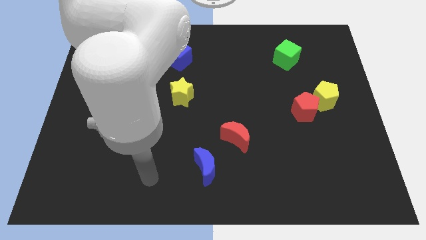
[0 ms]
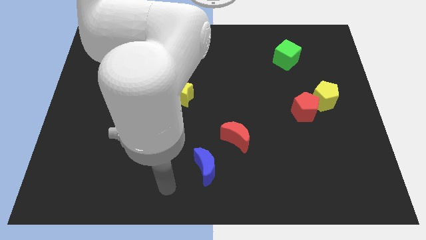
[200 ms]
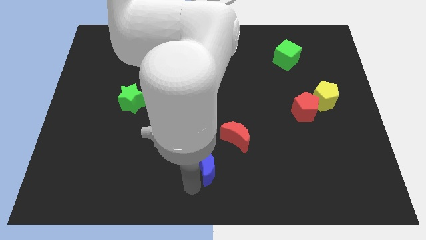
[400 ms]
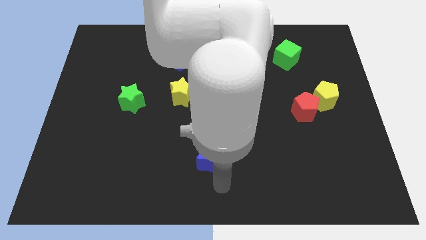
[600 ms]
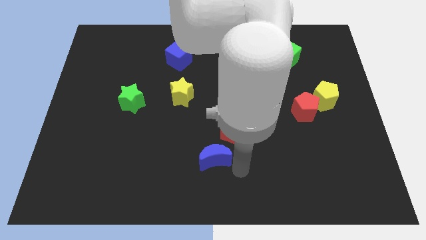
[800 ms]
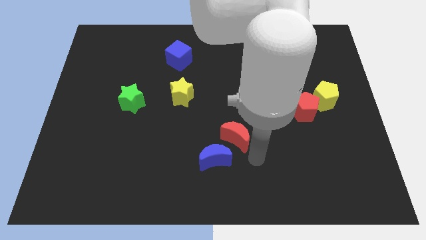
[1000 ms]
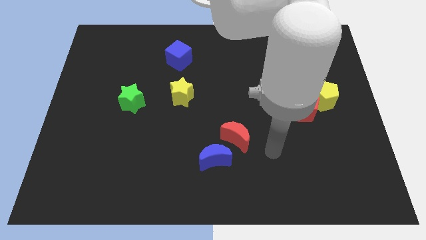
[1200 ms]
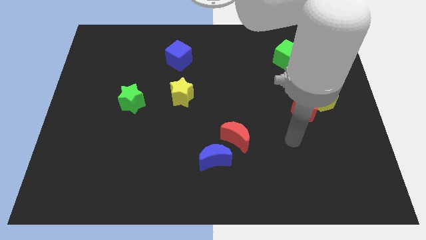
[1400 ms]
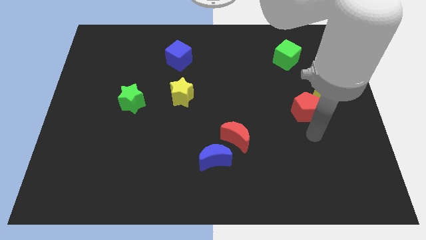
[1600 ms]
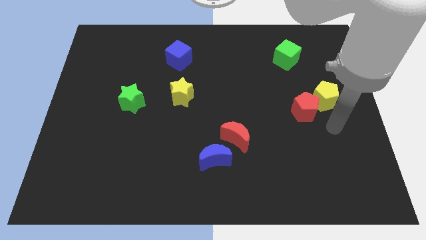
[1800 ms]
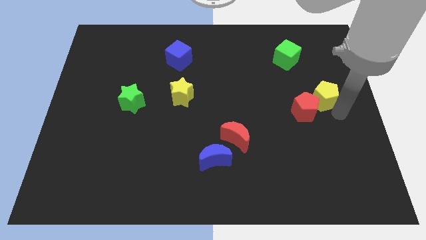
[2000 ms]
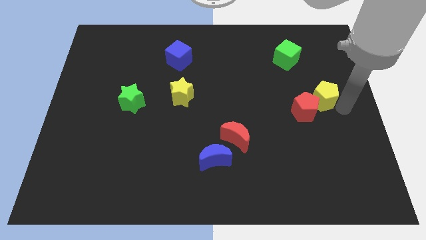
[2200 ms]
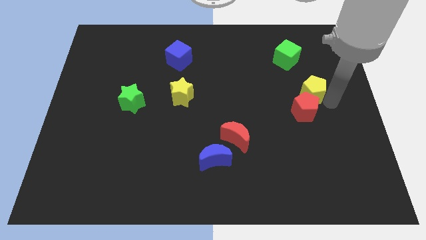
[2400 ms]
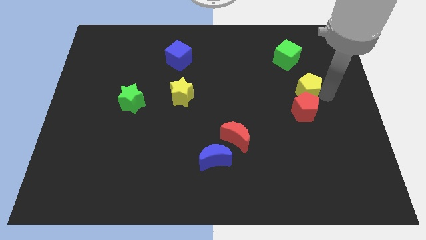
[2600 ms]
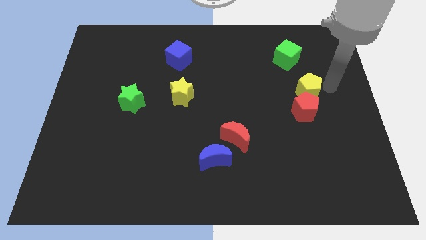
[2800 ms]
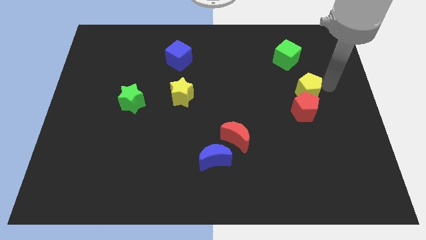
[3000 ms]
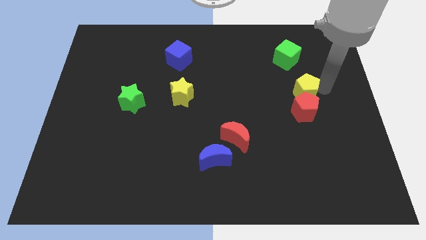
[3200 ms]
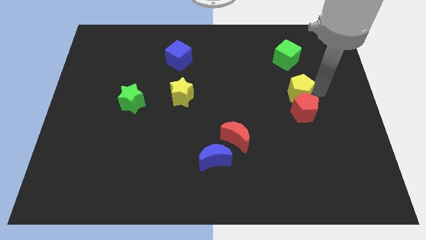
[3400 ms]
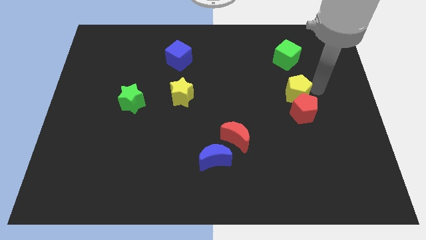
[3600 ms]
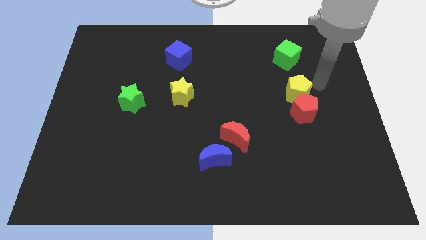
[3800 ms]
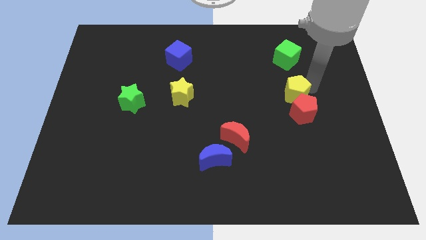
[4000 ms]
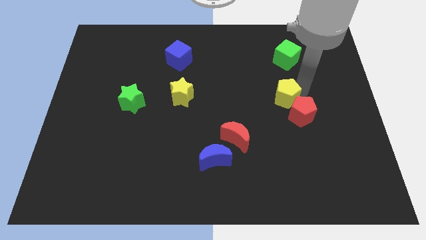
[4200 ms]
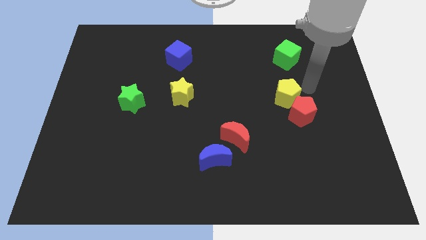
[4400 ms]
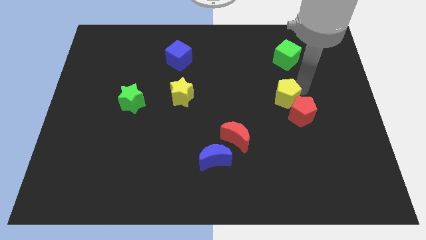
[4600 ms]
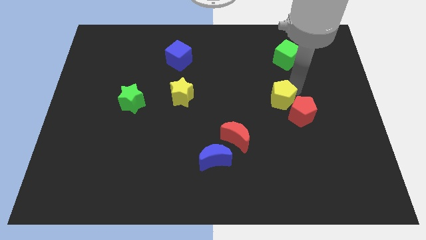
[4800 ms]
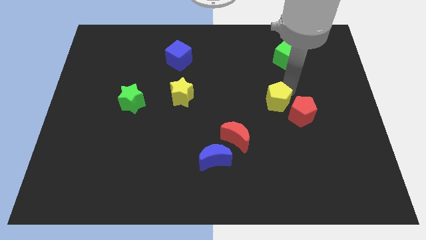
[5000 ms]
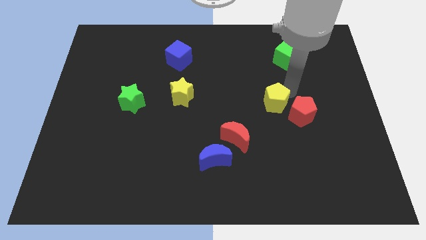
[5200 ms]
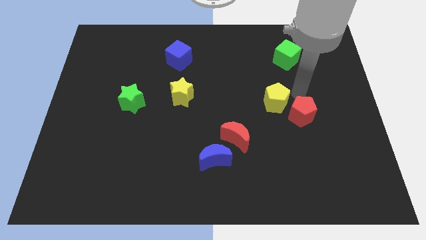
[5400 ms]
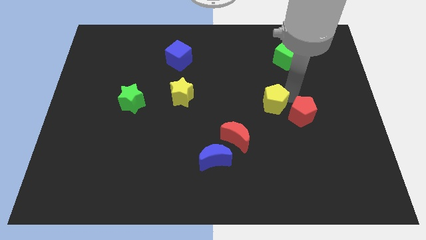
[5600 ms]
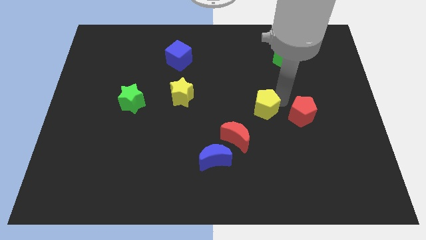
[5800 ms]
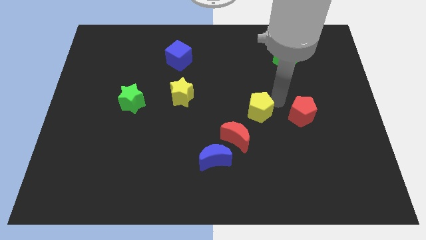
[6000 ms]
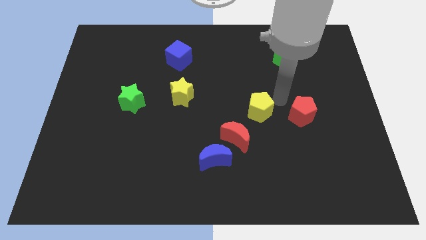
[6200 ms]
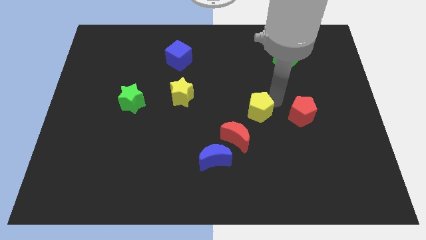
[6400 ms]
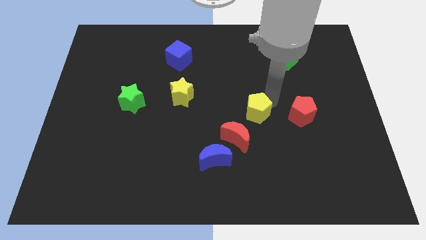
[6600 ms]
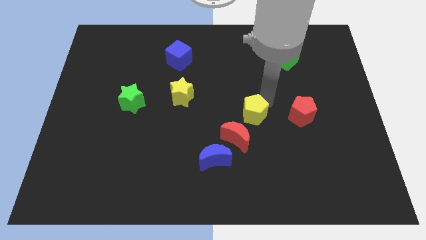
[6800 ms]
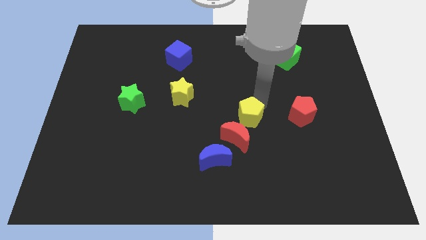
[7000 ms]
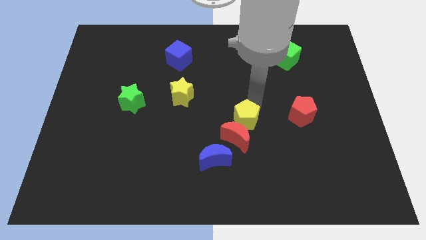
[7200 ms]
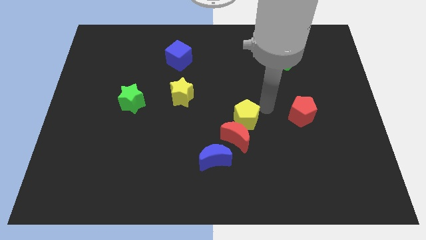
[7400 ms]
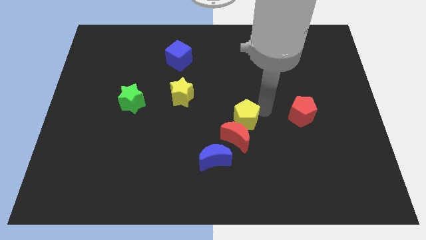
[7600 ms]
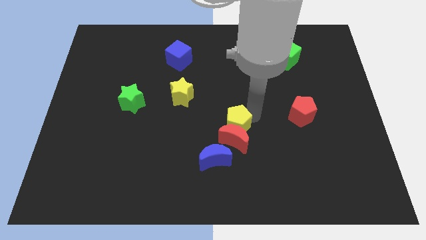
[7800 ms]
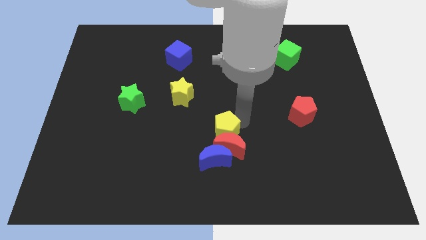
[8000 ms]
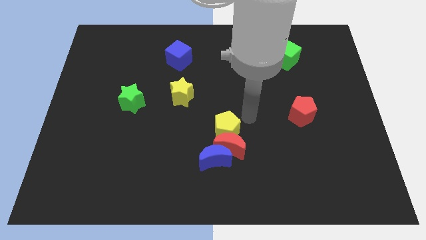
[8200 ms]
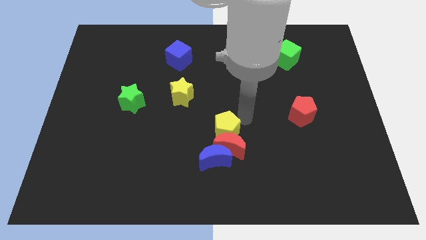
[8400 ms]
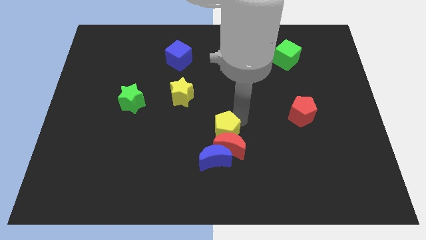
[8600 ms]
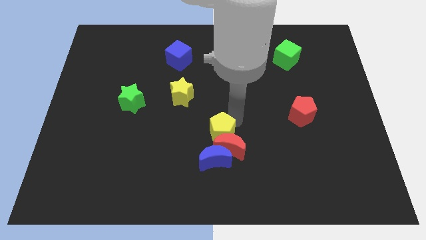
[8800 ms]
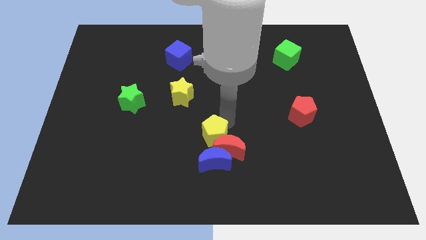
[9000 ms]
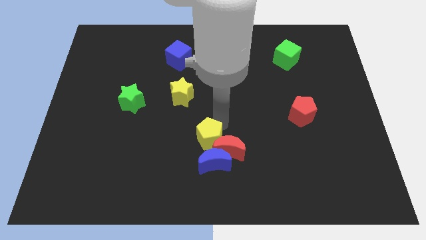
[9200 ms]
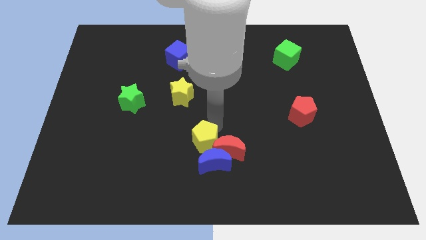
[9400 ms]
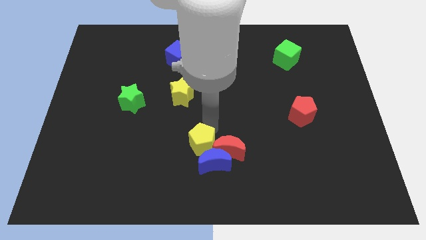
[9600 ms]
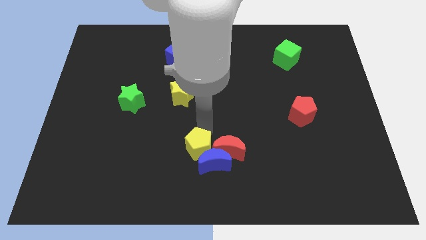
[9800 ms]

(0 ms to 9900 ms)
move the yellow pentagon left of the blue moon

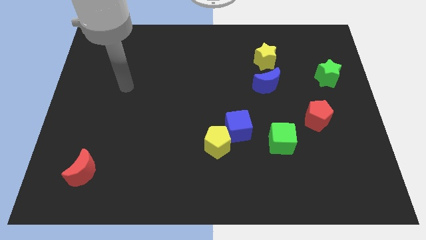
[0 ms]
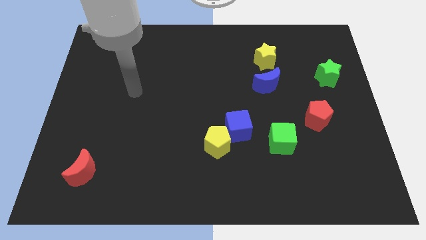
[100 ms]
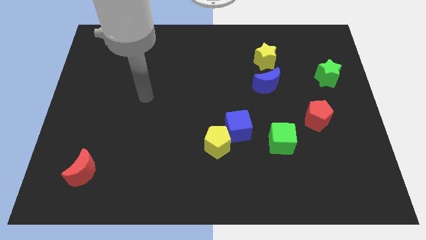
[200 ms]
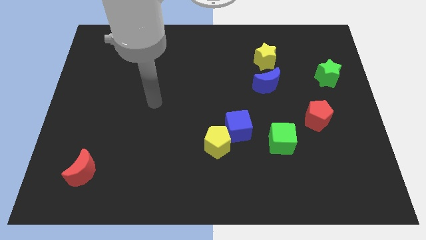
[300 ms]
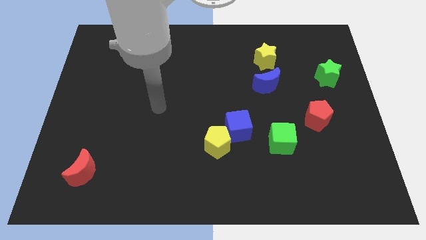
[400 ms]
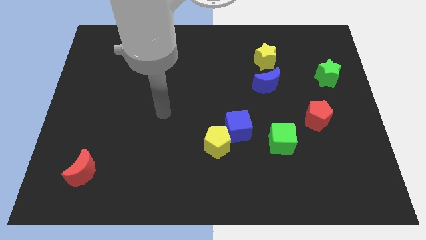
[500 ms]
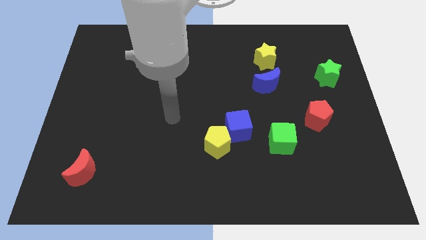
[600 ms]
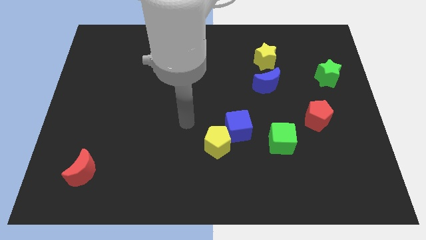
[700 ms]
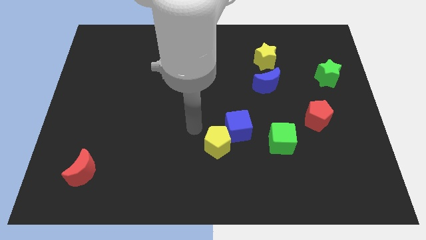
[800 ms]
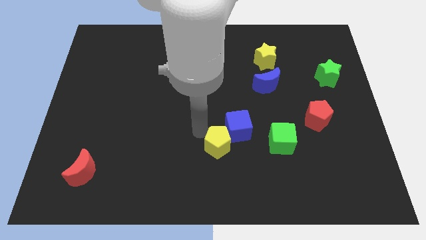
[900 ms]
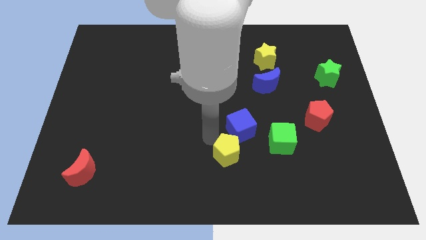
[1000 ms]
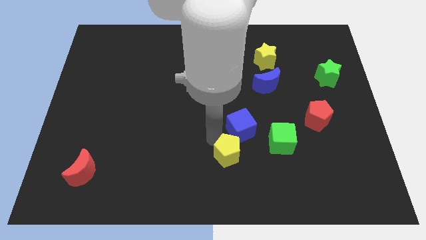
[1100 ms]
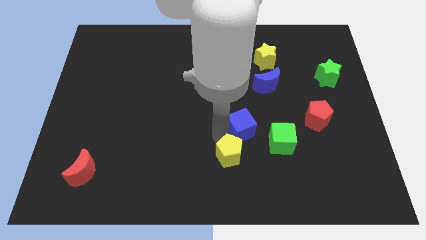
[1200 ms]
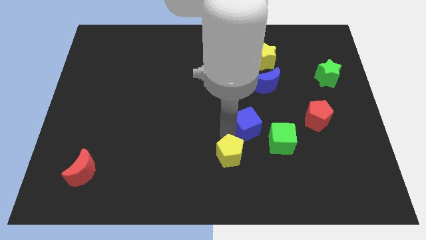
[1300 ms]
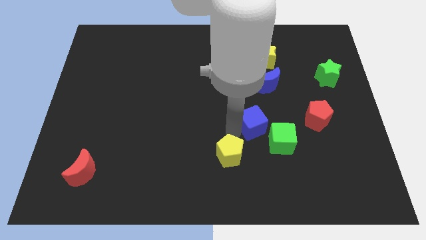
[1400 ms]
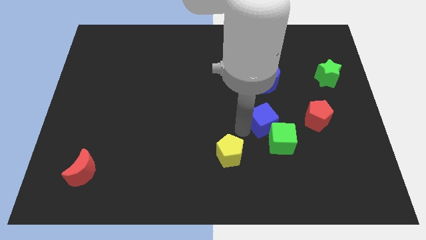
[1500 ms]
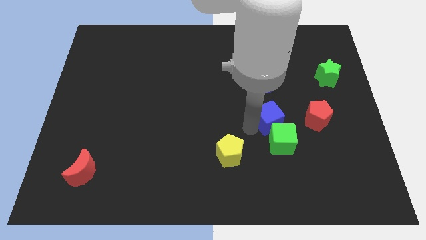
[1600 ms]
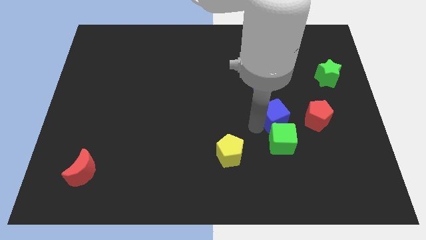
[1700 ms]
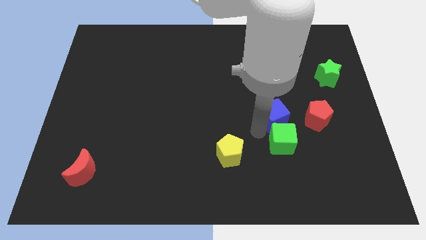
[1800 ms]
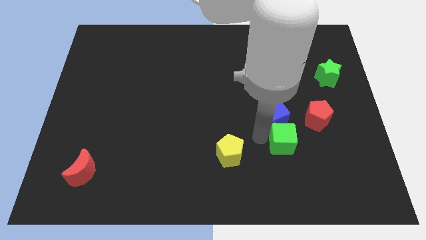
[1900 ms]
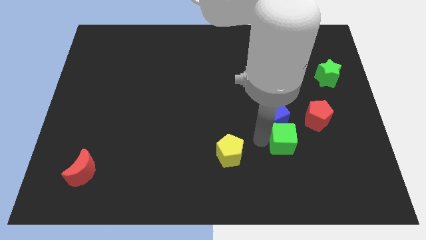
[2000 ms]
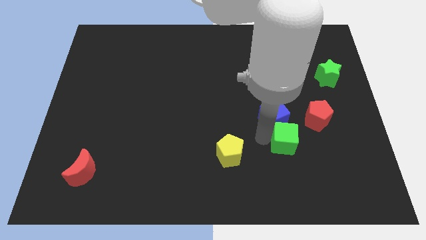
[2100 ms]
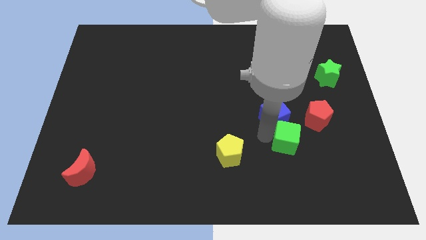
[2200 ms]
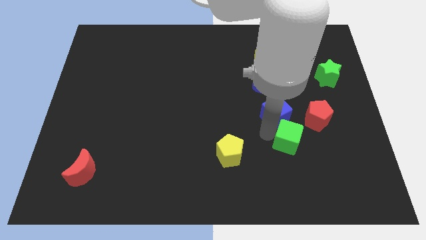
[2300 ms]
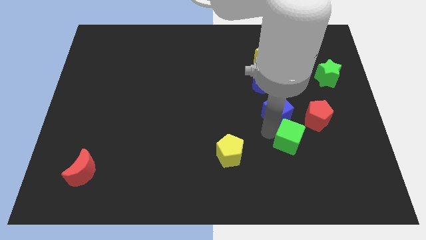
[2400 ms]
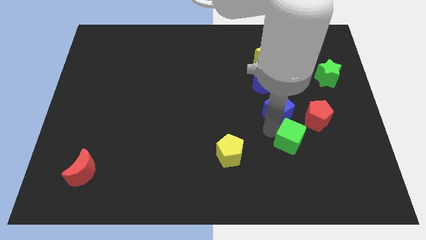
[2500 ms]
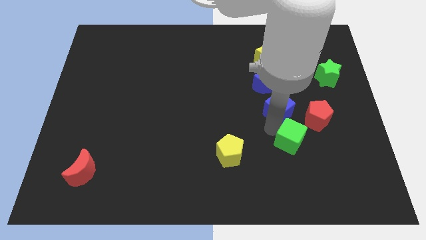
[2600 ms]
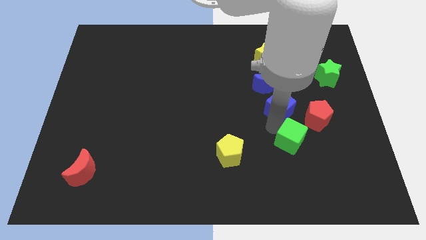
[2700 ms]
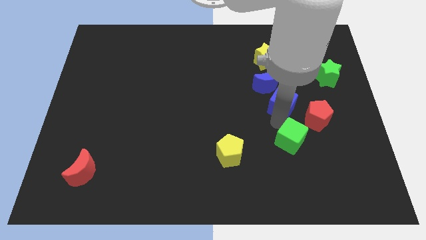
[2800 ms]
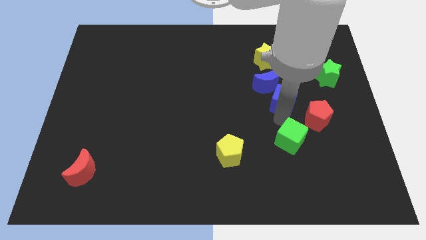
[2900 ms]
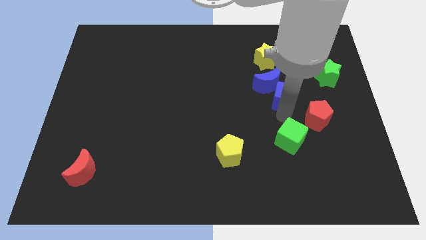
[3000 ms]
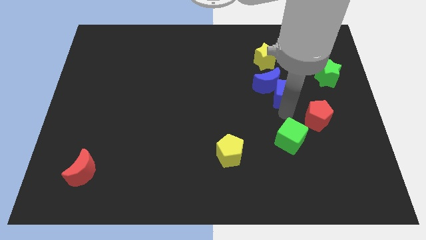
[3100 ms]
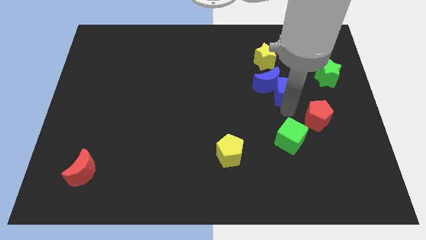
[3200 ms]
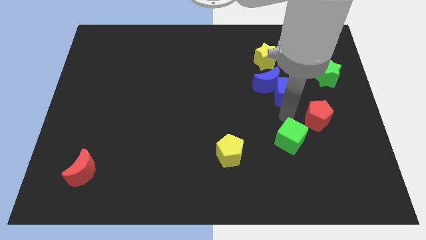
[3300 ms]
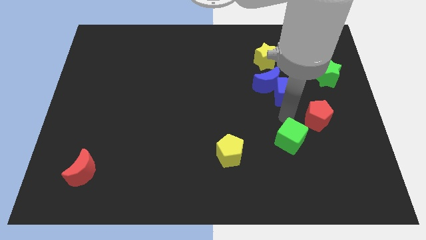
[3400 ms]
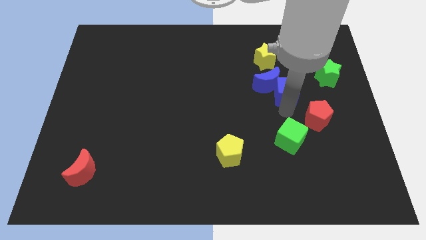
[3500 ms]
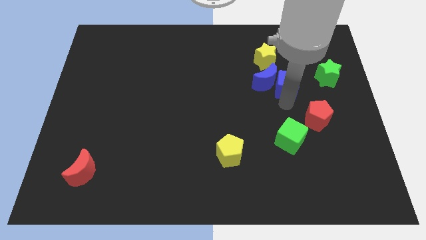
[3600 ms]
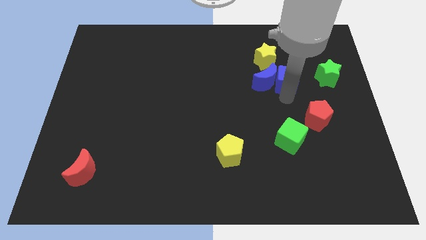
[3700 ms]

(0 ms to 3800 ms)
push the blue cube to the top right of the blue moon
